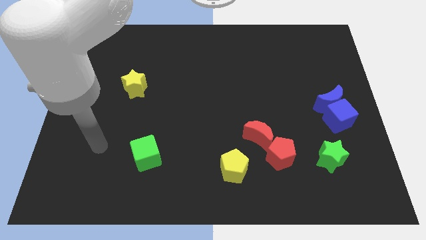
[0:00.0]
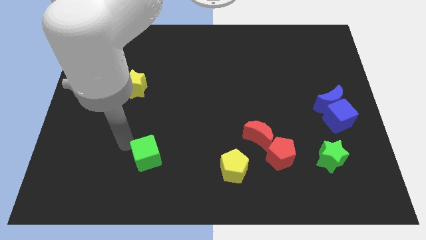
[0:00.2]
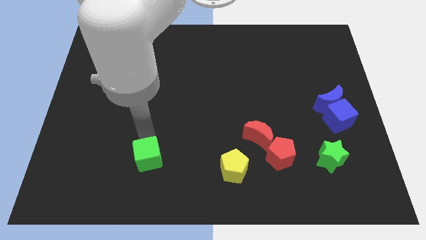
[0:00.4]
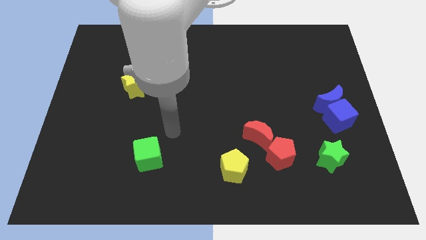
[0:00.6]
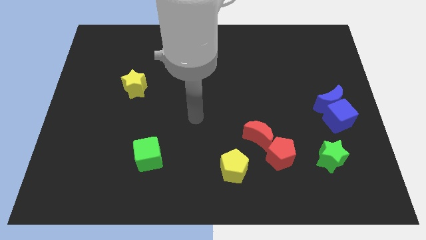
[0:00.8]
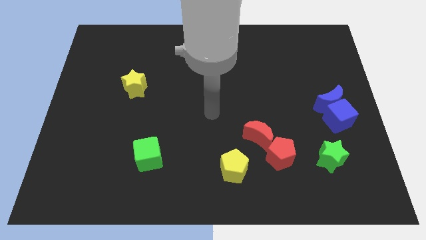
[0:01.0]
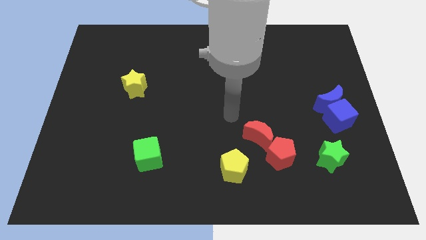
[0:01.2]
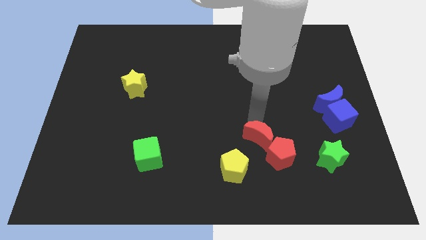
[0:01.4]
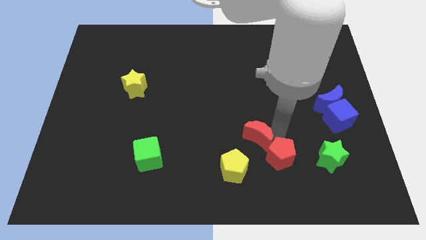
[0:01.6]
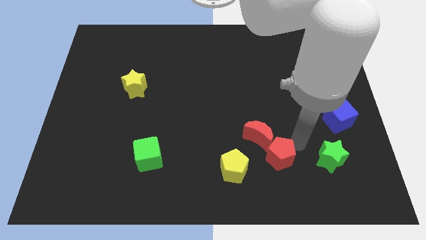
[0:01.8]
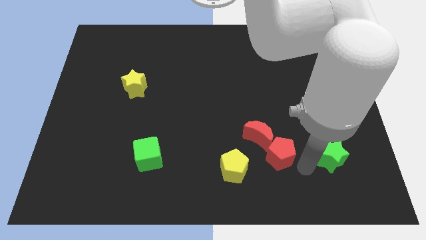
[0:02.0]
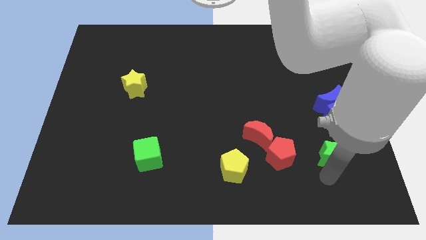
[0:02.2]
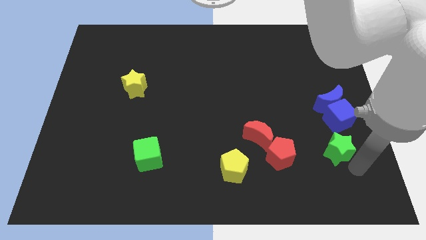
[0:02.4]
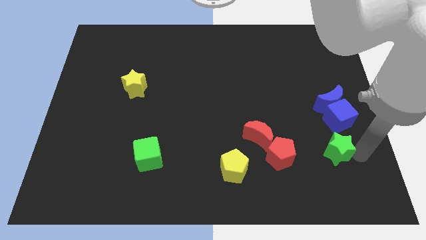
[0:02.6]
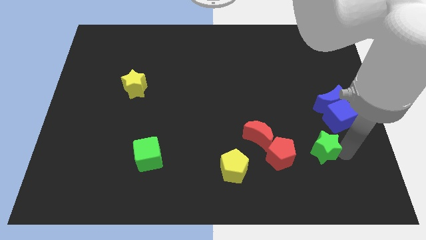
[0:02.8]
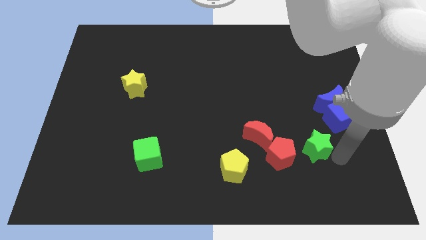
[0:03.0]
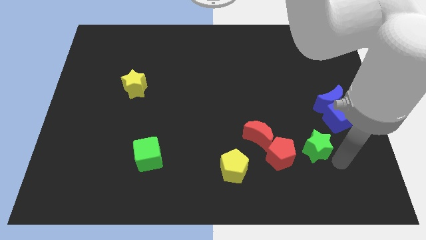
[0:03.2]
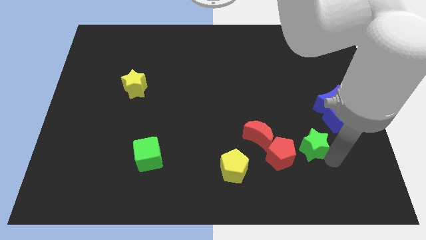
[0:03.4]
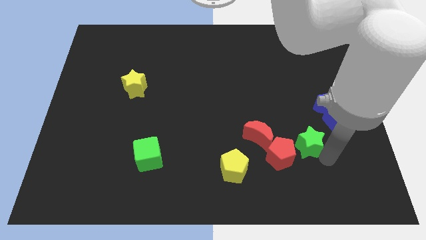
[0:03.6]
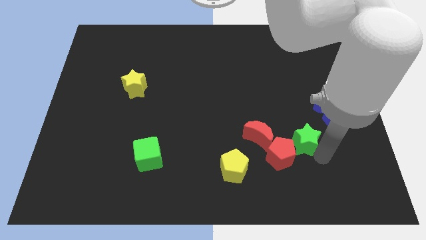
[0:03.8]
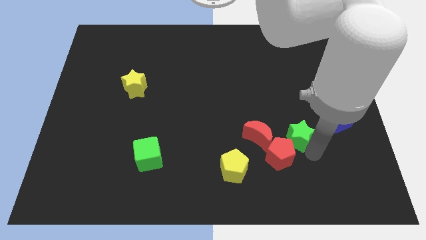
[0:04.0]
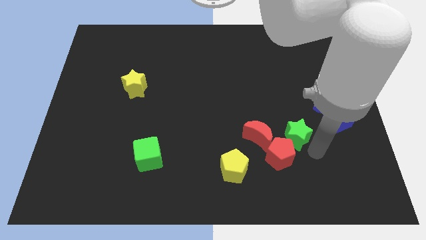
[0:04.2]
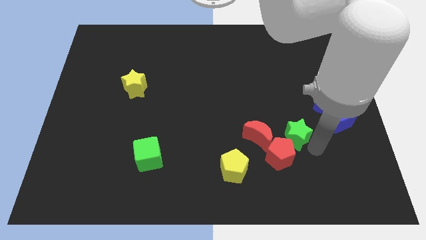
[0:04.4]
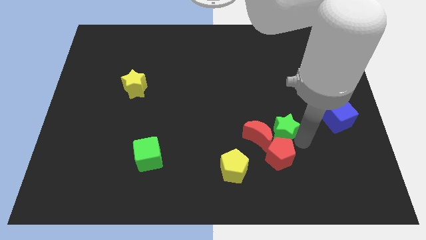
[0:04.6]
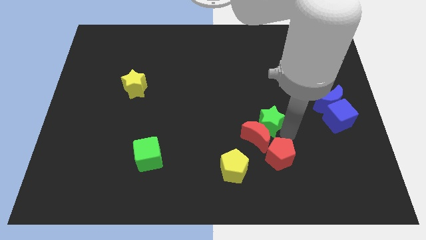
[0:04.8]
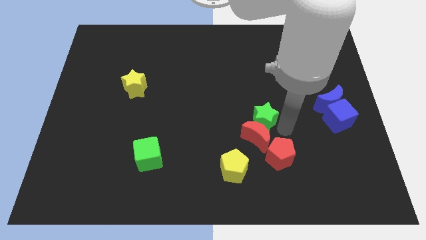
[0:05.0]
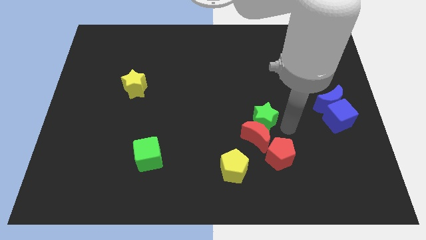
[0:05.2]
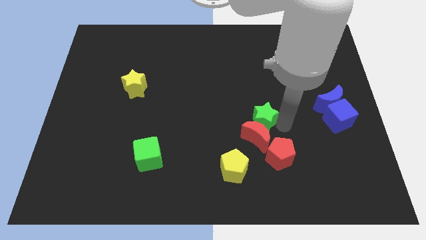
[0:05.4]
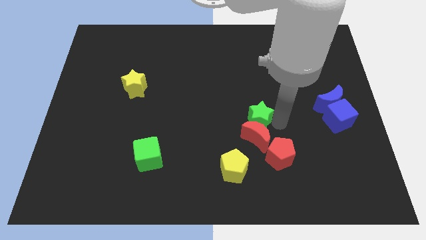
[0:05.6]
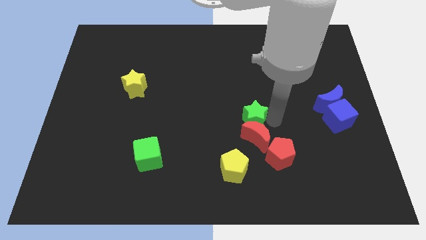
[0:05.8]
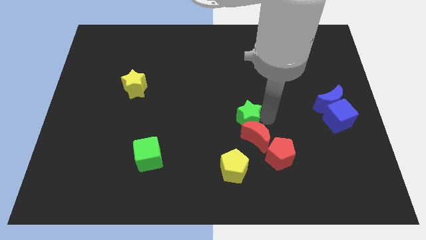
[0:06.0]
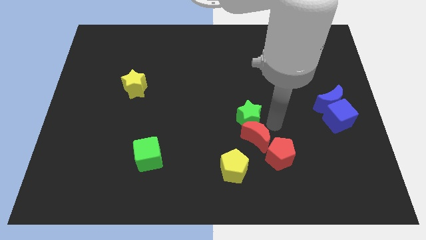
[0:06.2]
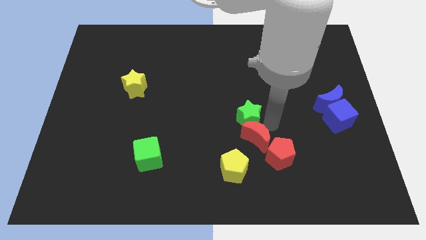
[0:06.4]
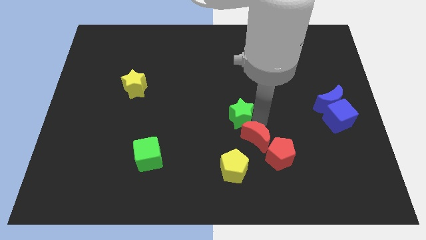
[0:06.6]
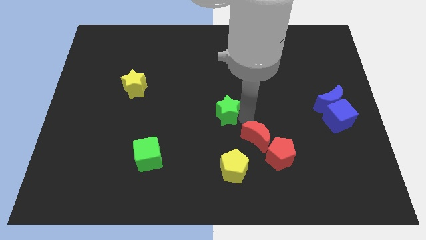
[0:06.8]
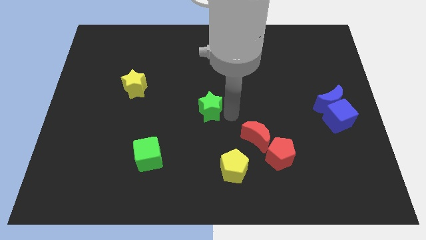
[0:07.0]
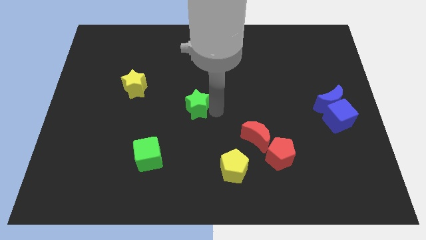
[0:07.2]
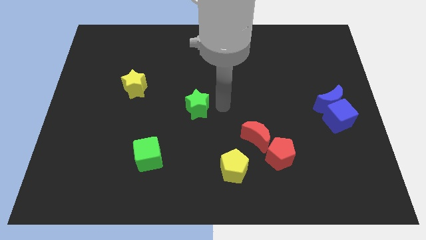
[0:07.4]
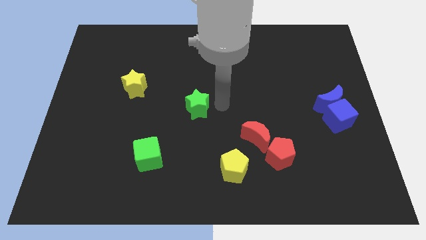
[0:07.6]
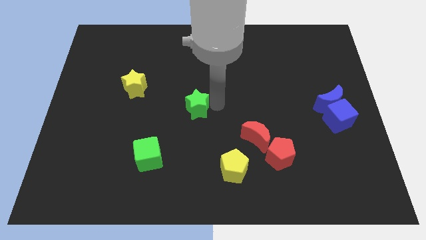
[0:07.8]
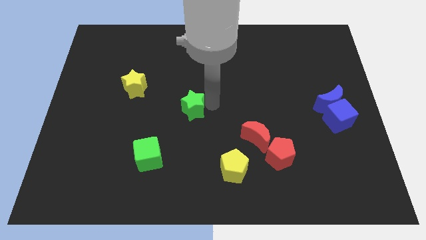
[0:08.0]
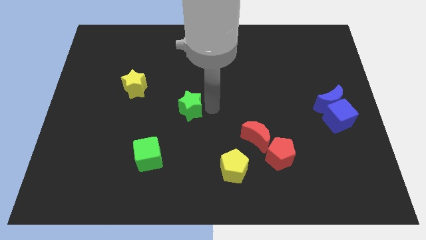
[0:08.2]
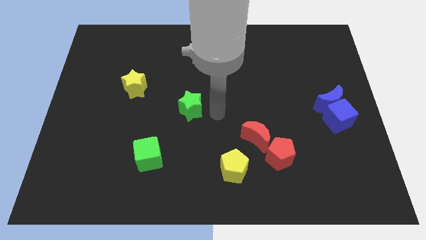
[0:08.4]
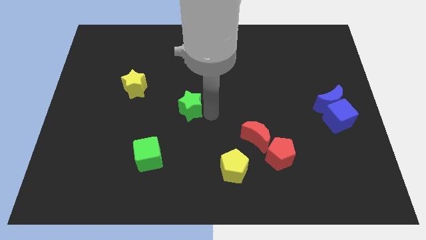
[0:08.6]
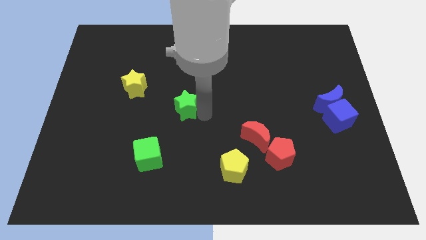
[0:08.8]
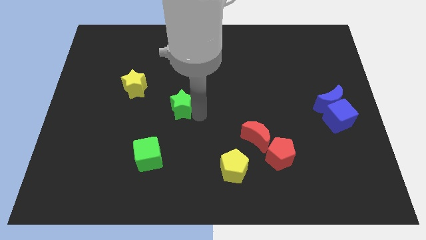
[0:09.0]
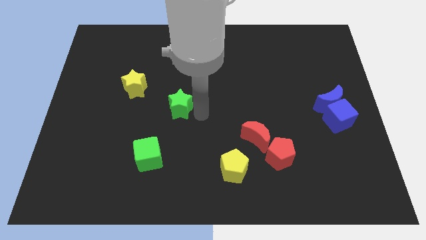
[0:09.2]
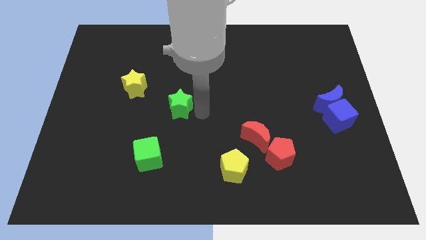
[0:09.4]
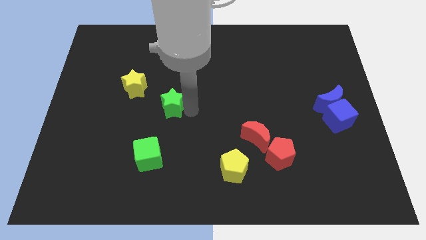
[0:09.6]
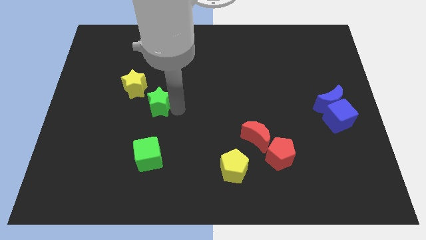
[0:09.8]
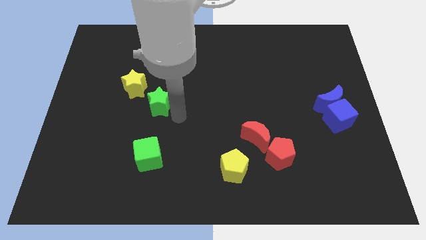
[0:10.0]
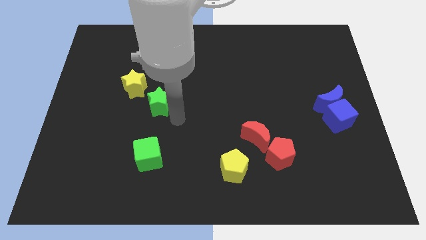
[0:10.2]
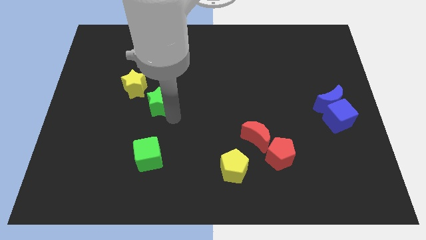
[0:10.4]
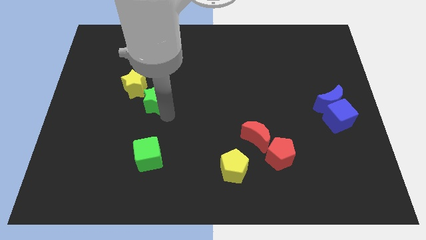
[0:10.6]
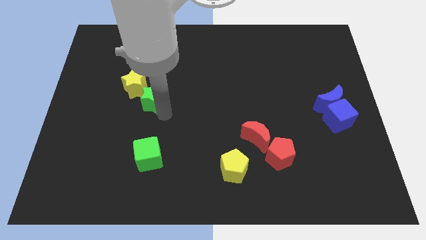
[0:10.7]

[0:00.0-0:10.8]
put the green star to the yellow star

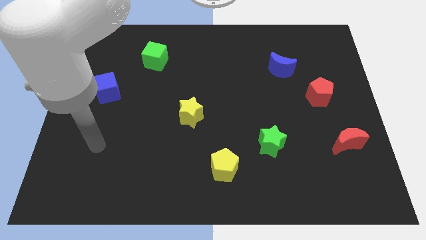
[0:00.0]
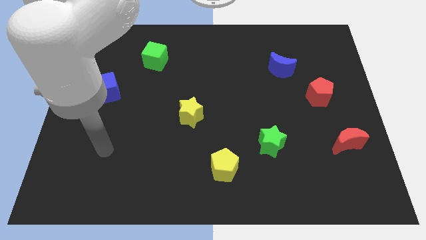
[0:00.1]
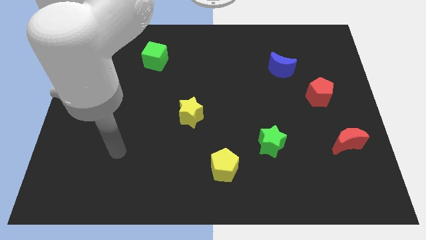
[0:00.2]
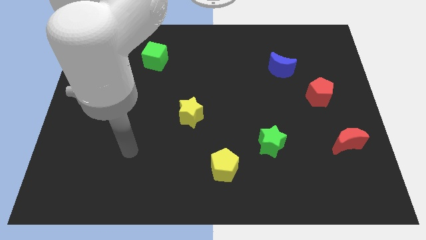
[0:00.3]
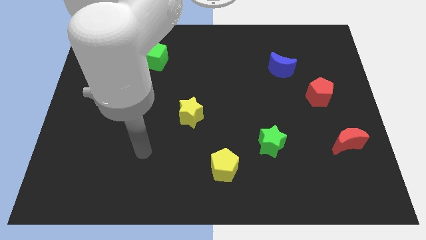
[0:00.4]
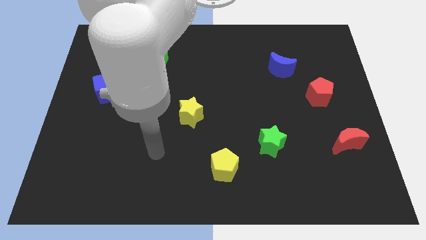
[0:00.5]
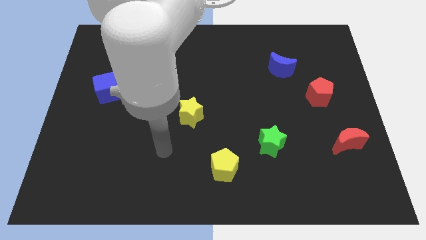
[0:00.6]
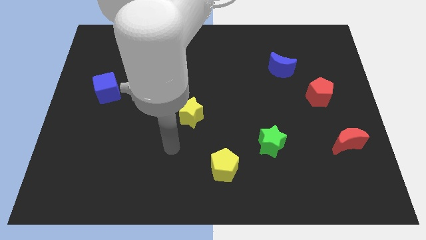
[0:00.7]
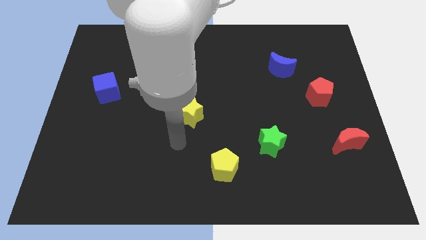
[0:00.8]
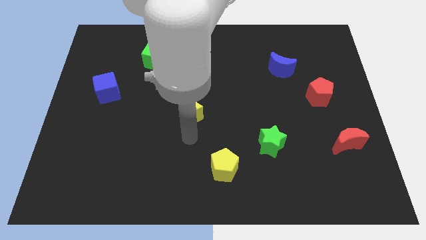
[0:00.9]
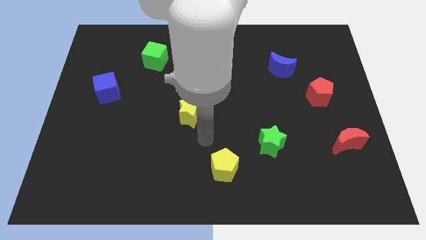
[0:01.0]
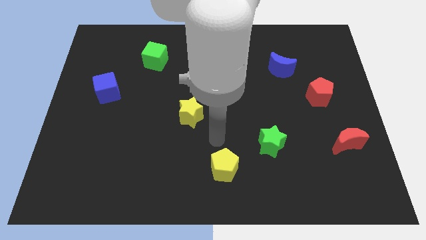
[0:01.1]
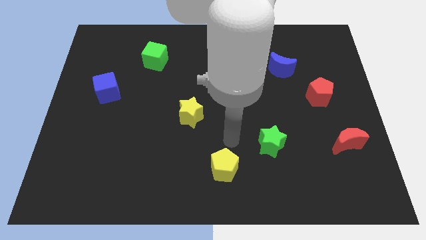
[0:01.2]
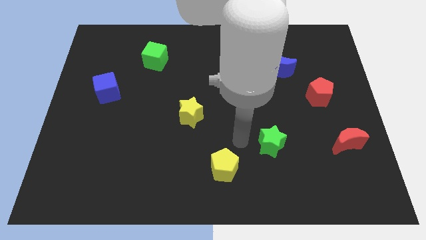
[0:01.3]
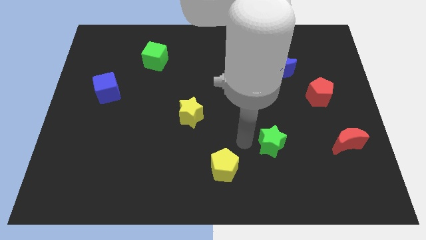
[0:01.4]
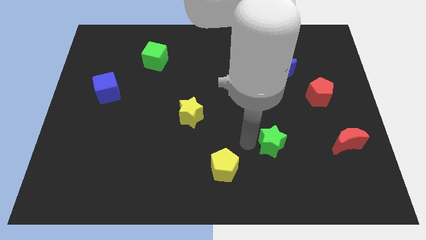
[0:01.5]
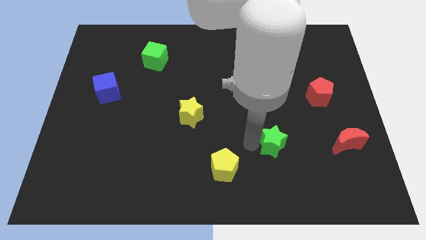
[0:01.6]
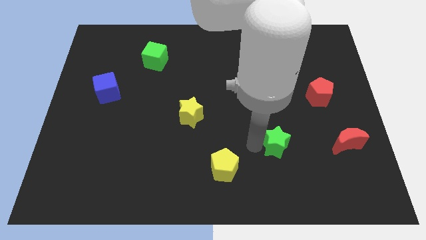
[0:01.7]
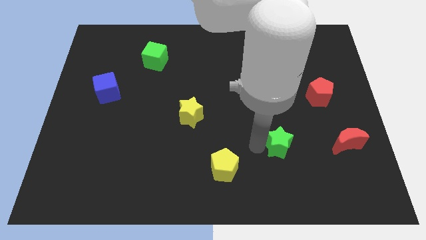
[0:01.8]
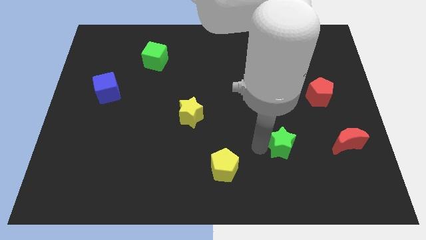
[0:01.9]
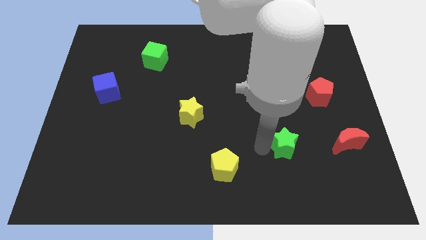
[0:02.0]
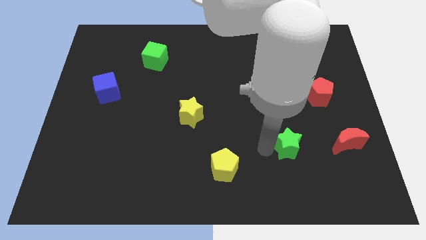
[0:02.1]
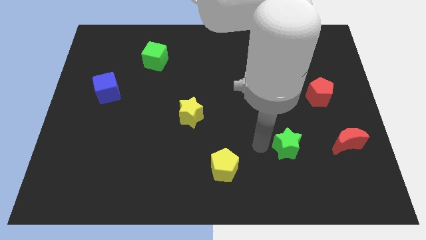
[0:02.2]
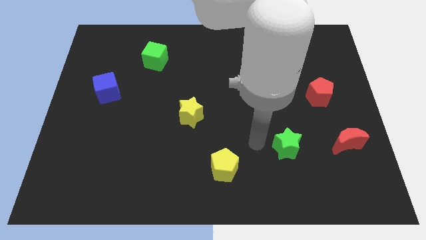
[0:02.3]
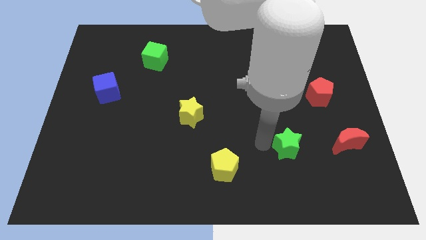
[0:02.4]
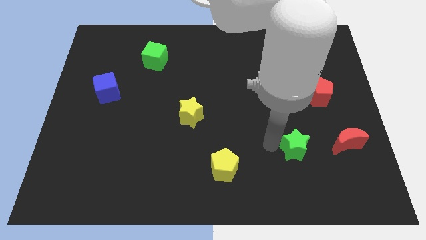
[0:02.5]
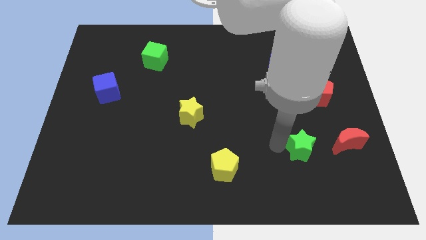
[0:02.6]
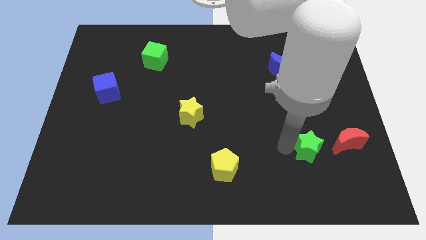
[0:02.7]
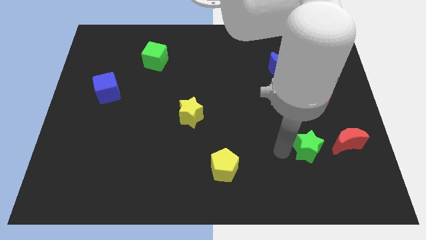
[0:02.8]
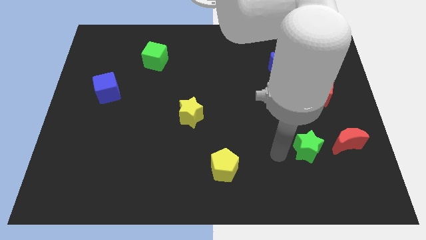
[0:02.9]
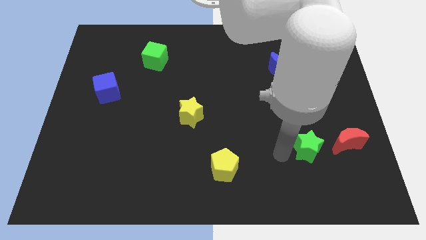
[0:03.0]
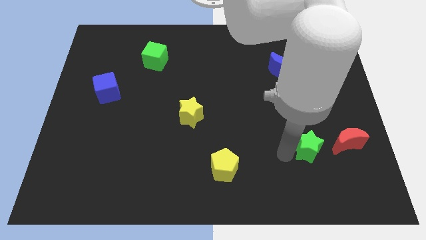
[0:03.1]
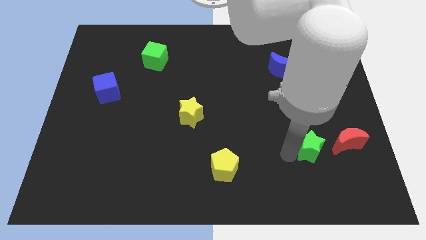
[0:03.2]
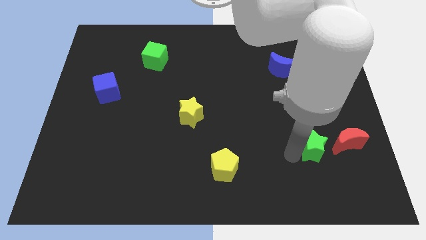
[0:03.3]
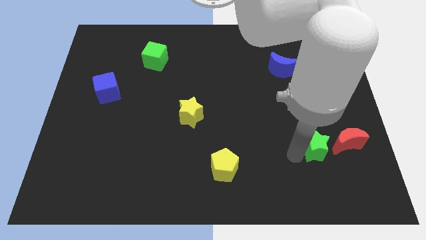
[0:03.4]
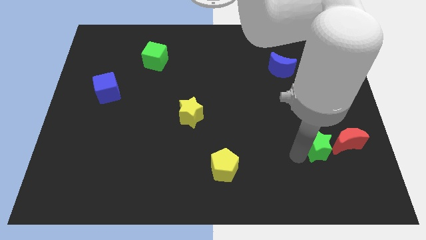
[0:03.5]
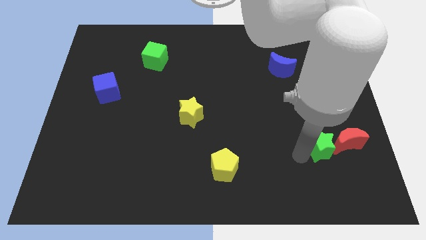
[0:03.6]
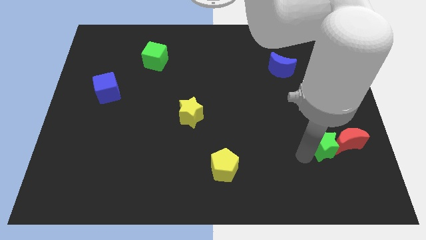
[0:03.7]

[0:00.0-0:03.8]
slide the green star next to the red moon
